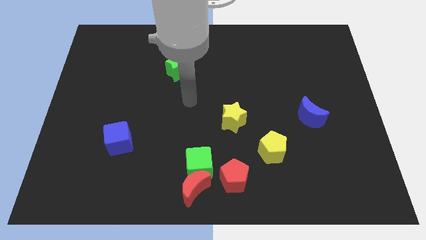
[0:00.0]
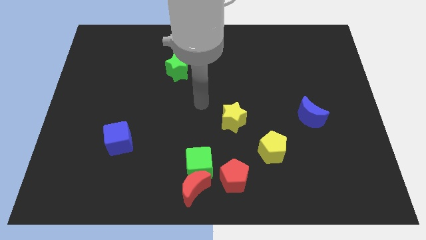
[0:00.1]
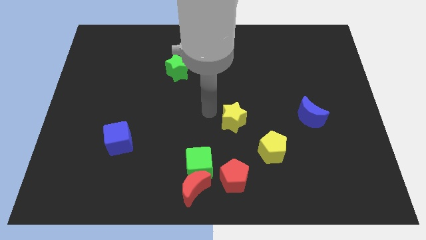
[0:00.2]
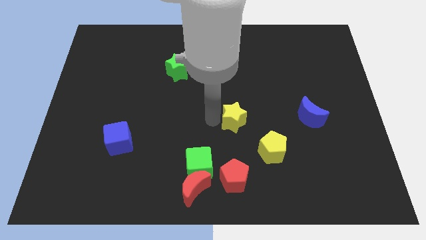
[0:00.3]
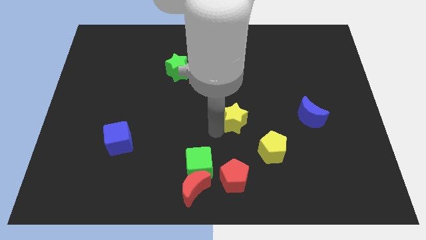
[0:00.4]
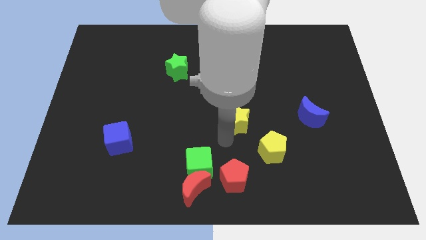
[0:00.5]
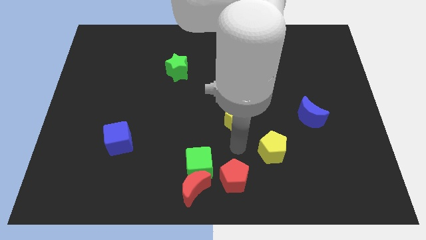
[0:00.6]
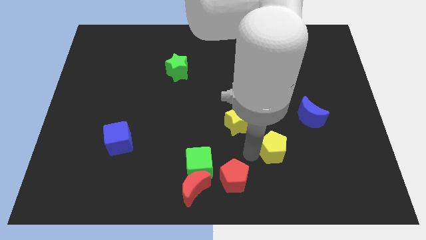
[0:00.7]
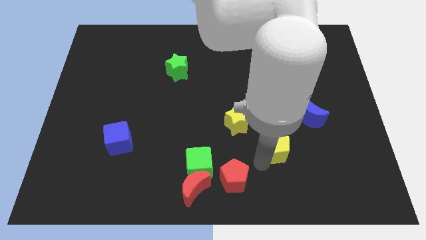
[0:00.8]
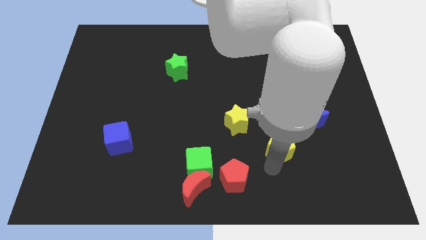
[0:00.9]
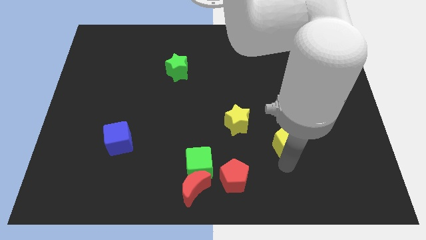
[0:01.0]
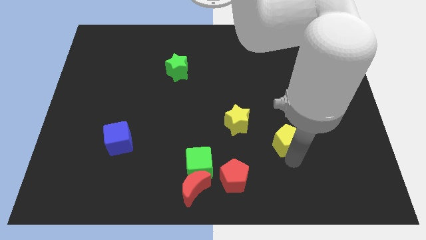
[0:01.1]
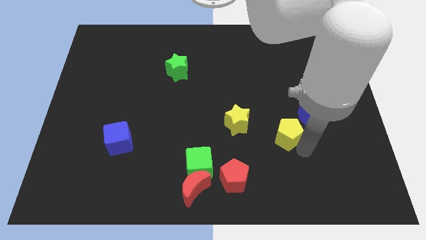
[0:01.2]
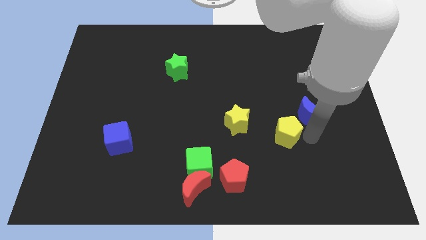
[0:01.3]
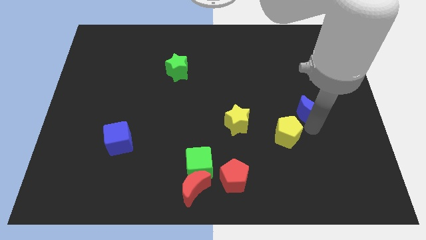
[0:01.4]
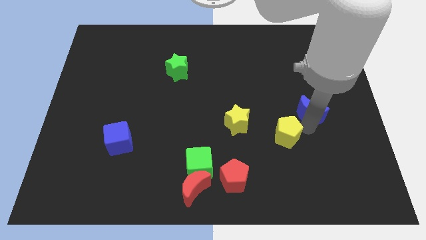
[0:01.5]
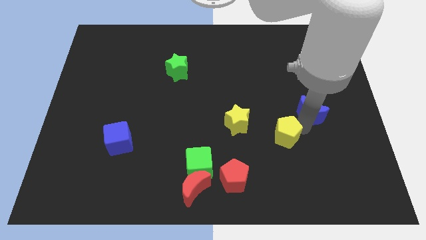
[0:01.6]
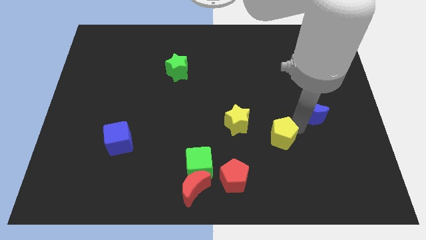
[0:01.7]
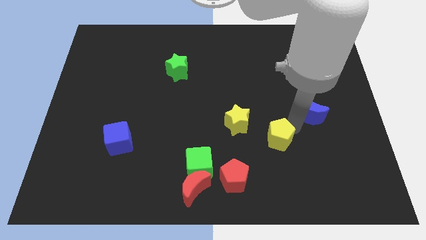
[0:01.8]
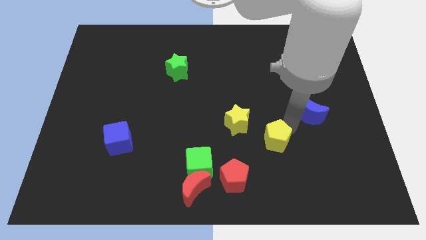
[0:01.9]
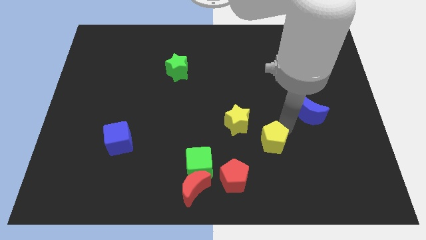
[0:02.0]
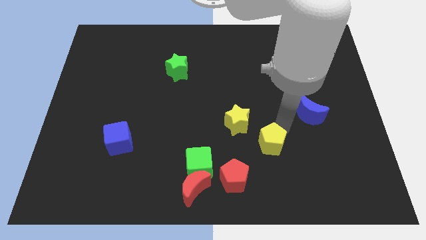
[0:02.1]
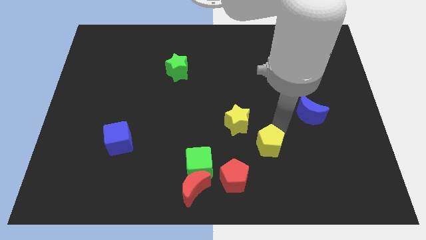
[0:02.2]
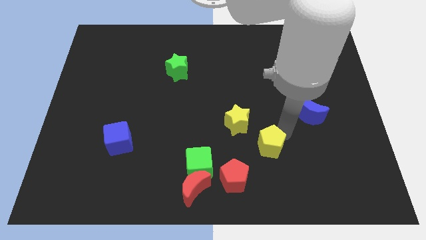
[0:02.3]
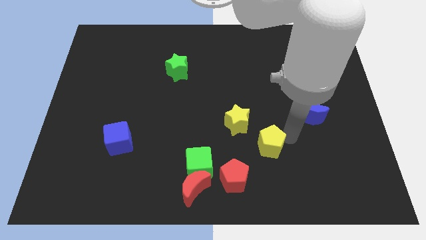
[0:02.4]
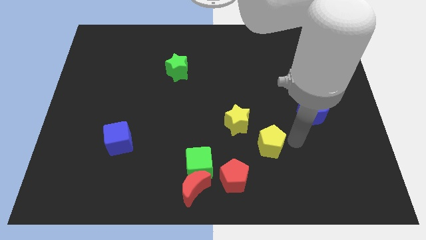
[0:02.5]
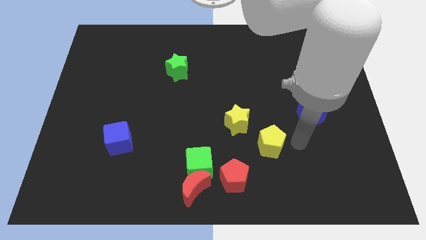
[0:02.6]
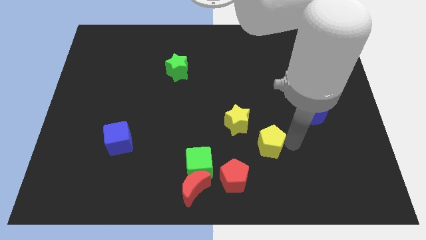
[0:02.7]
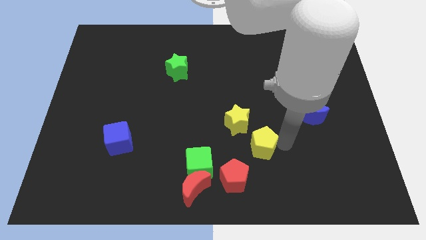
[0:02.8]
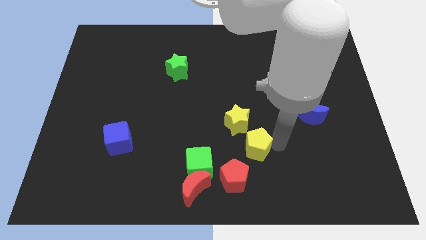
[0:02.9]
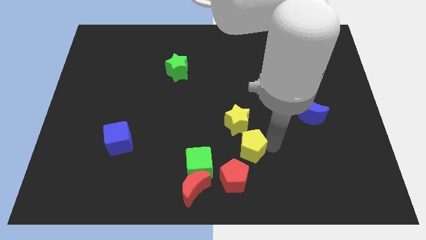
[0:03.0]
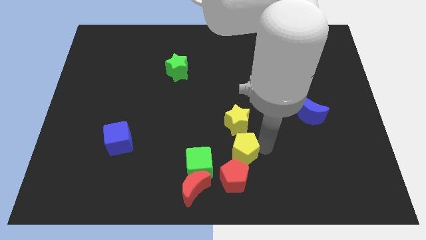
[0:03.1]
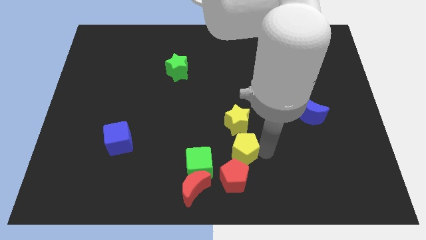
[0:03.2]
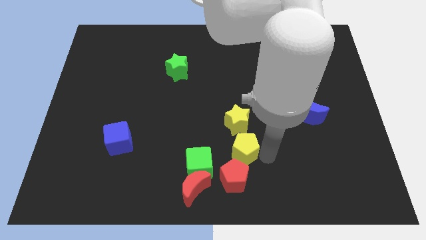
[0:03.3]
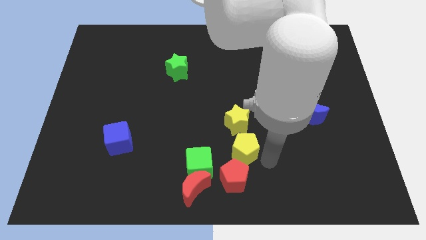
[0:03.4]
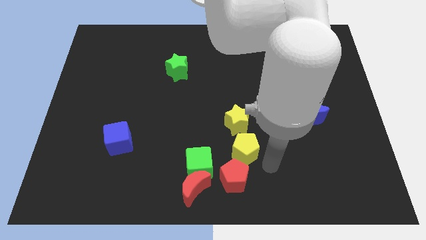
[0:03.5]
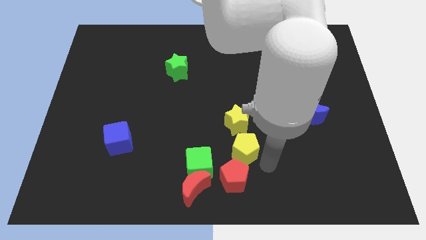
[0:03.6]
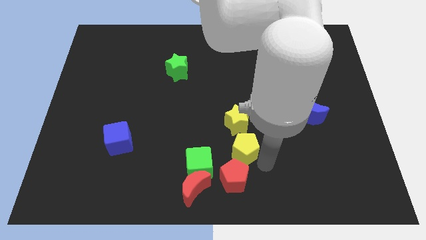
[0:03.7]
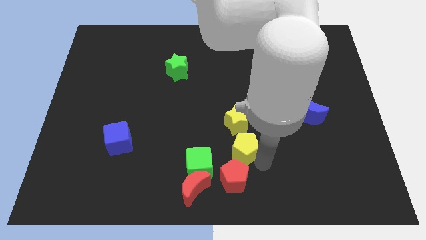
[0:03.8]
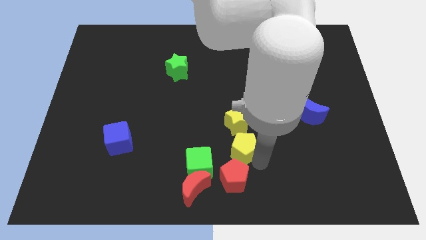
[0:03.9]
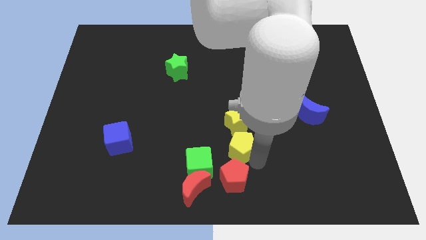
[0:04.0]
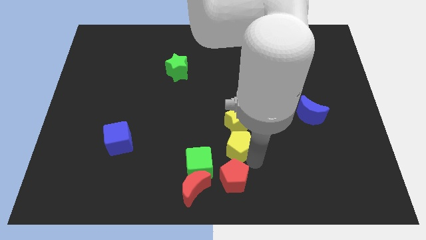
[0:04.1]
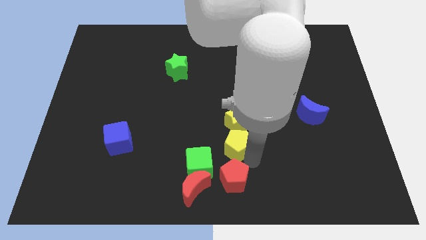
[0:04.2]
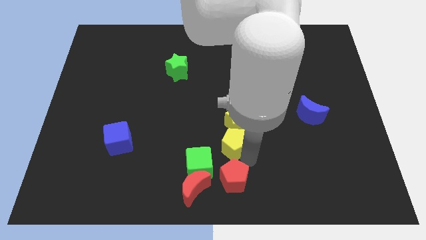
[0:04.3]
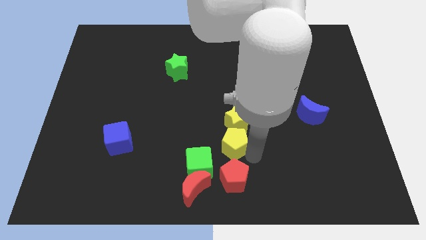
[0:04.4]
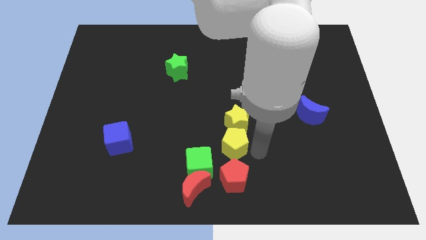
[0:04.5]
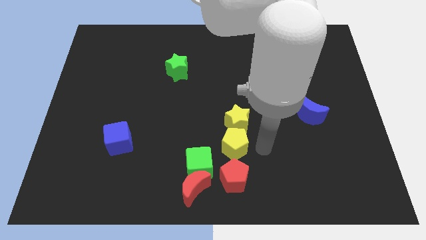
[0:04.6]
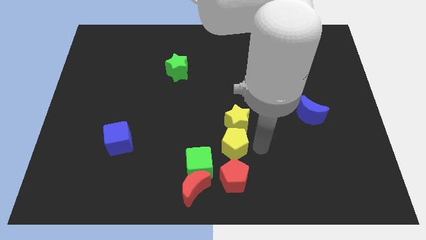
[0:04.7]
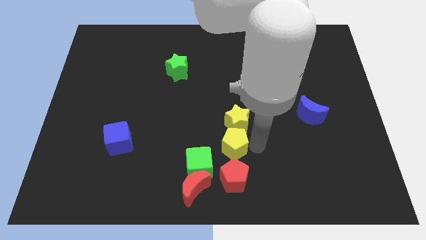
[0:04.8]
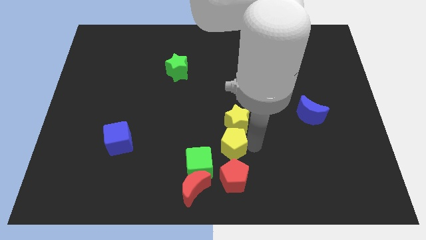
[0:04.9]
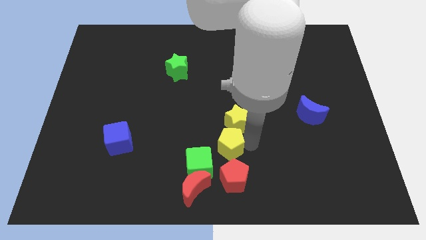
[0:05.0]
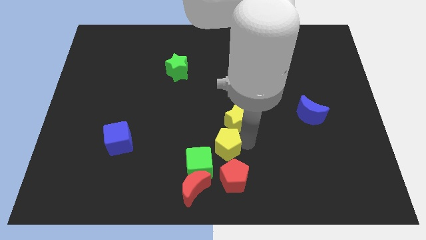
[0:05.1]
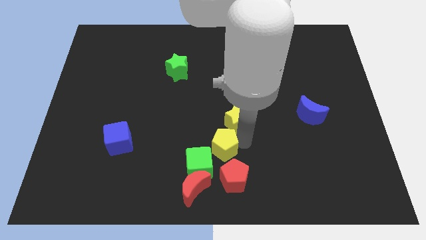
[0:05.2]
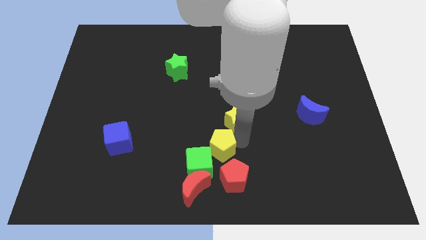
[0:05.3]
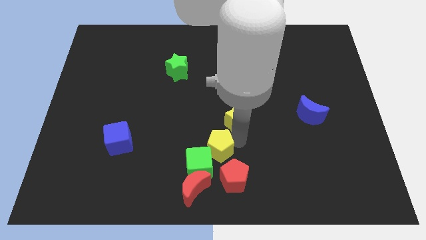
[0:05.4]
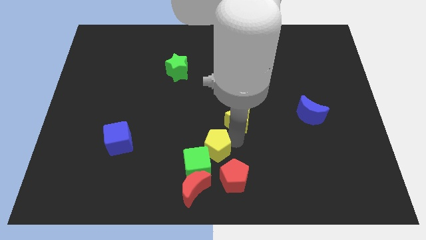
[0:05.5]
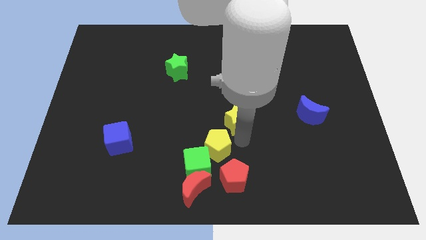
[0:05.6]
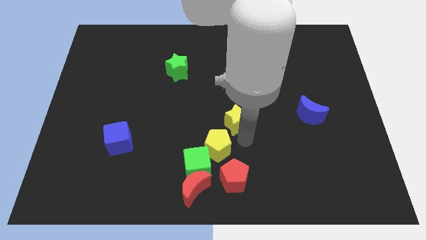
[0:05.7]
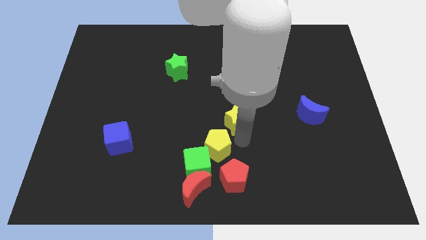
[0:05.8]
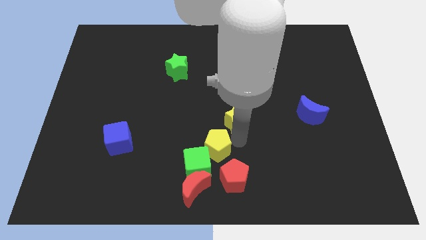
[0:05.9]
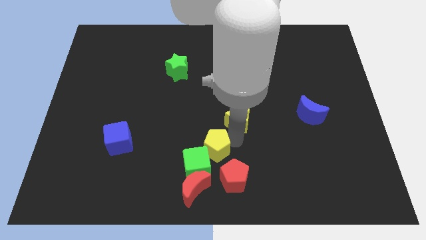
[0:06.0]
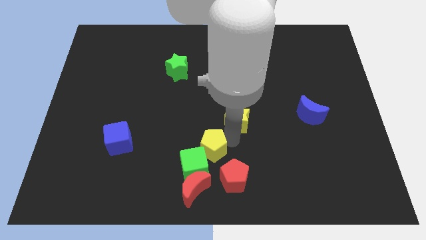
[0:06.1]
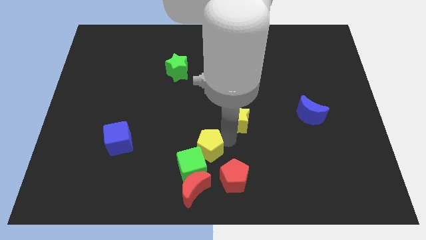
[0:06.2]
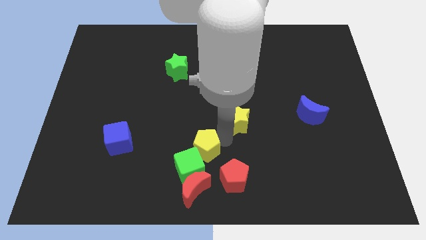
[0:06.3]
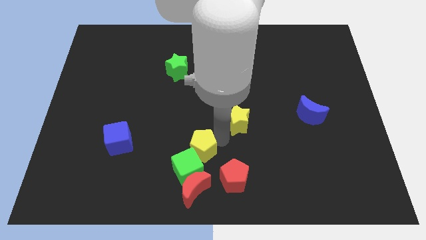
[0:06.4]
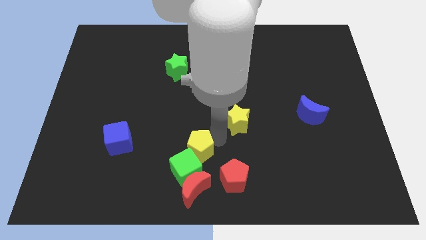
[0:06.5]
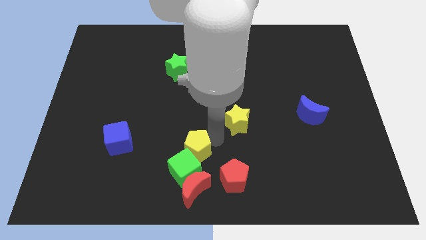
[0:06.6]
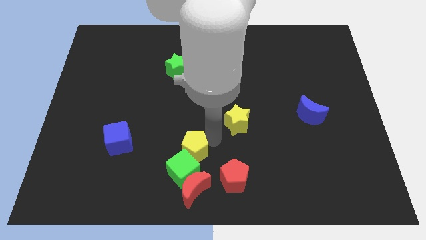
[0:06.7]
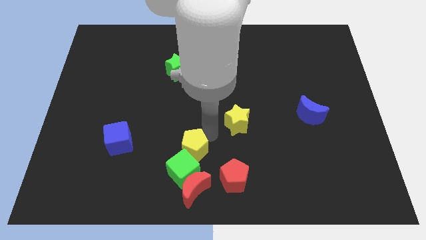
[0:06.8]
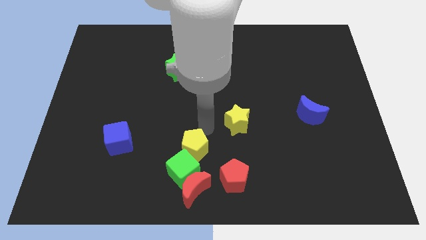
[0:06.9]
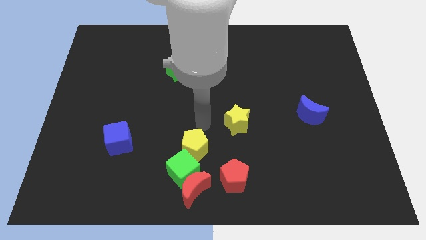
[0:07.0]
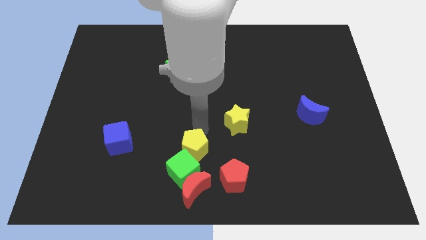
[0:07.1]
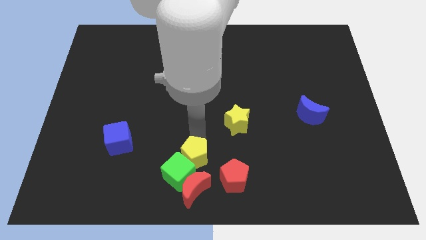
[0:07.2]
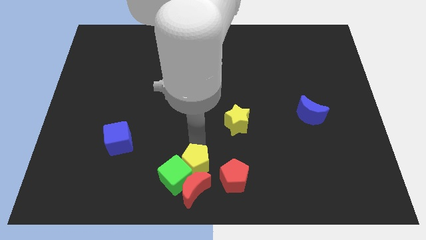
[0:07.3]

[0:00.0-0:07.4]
move the yellow pentagon to the left side of the red pentagon
